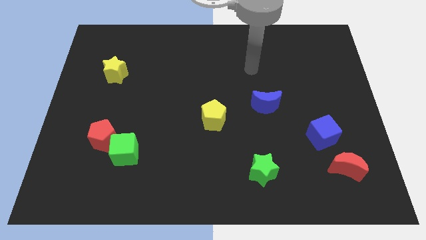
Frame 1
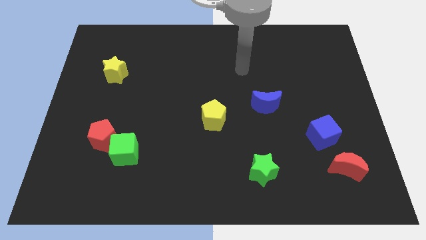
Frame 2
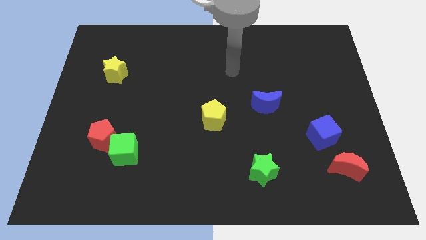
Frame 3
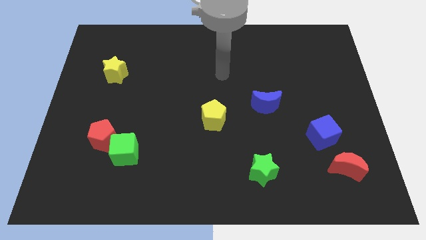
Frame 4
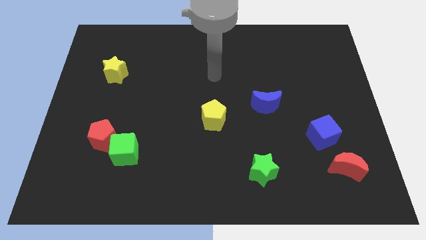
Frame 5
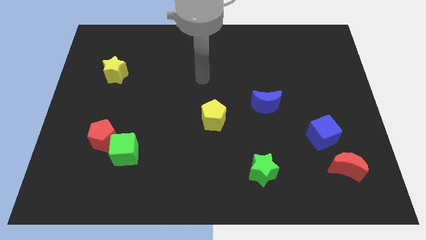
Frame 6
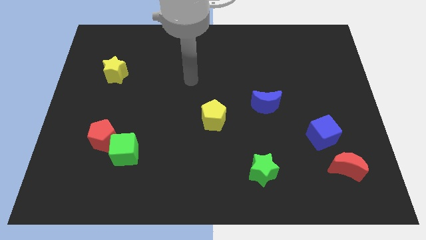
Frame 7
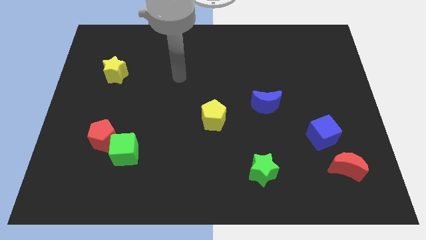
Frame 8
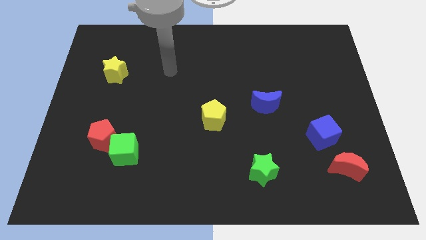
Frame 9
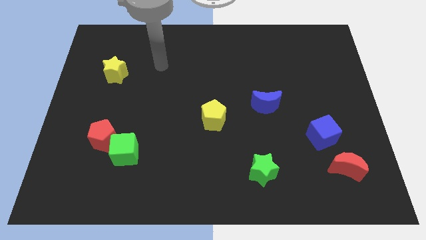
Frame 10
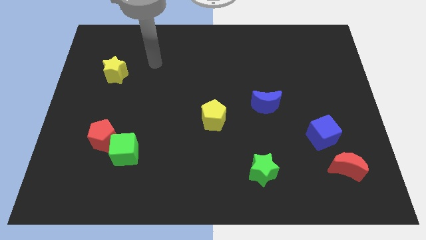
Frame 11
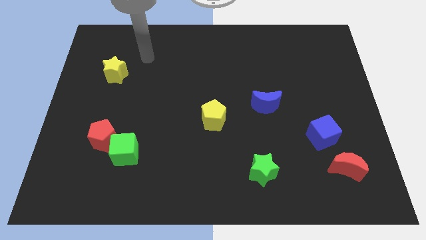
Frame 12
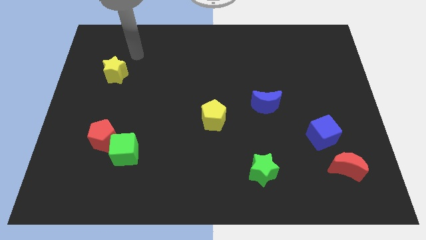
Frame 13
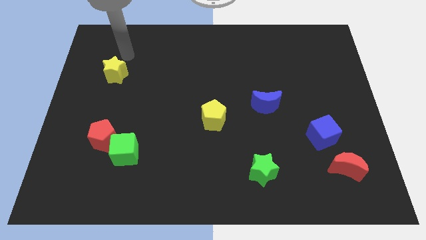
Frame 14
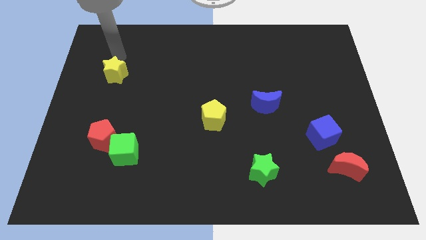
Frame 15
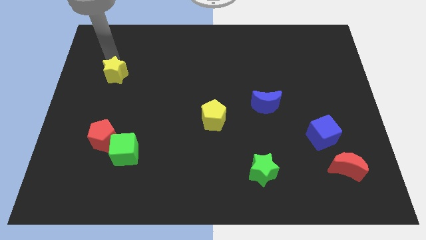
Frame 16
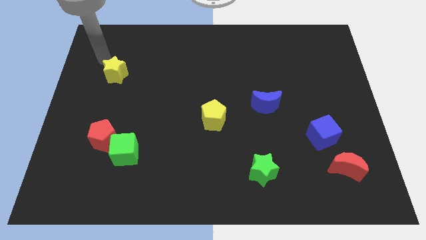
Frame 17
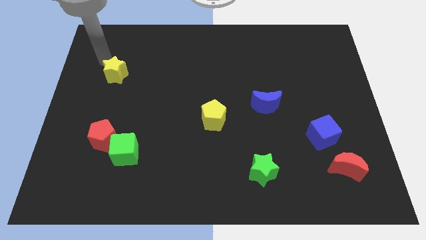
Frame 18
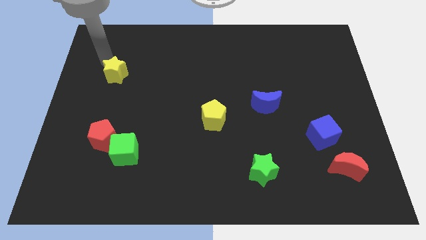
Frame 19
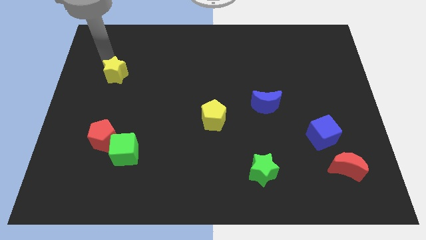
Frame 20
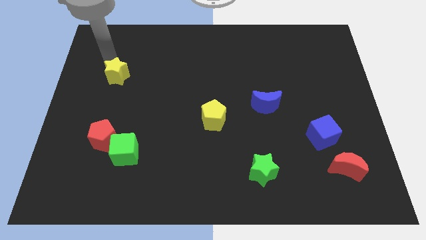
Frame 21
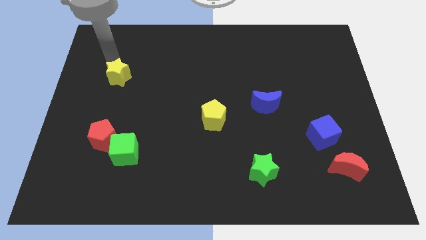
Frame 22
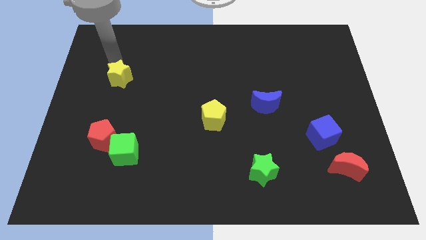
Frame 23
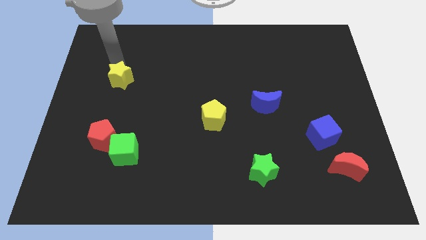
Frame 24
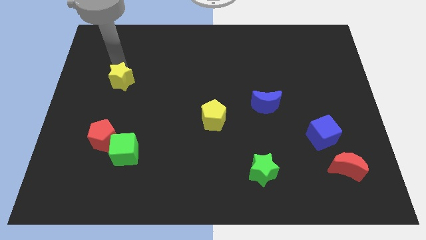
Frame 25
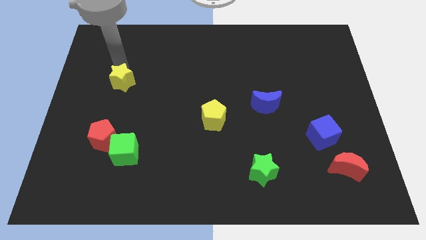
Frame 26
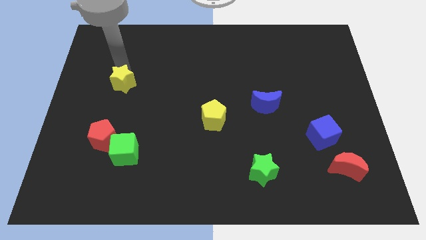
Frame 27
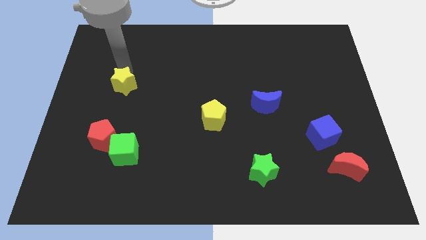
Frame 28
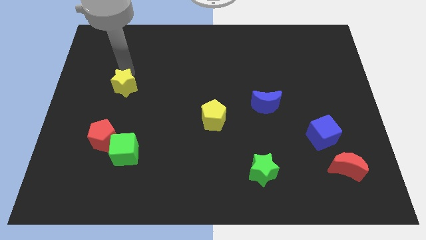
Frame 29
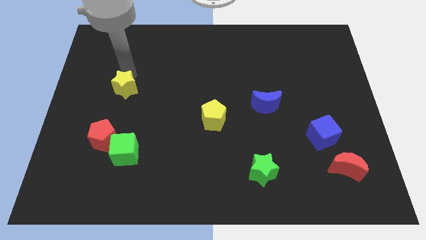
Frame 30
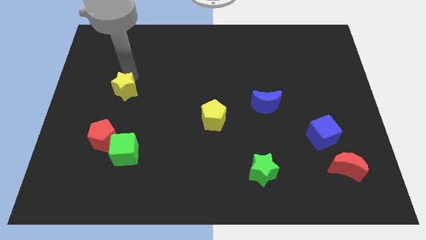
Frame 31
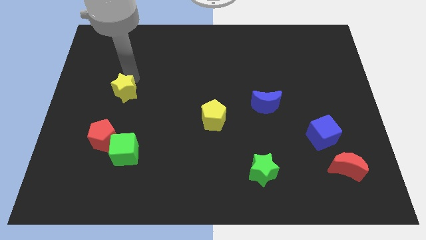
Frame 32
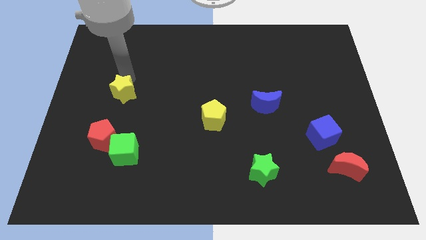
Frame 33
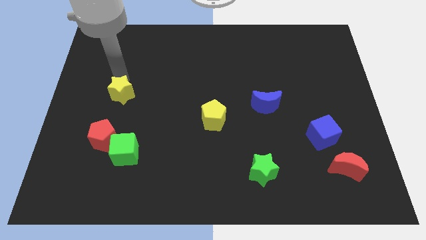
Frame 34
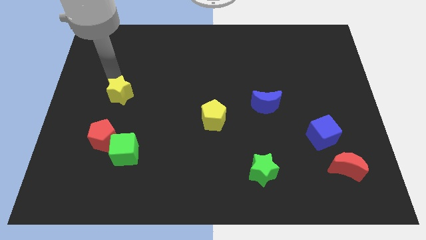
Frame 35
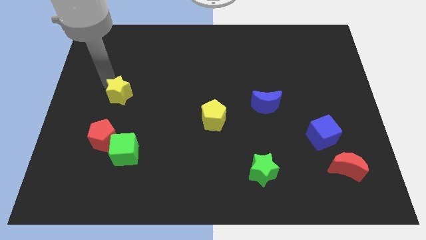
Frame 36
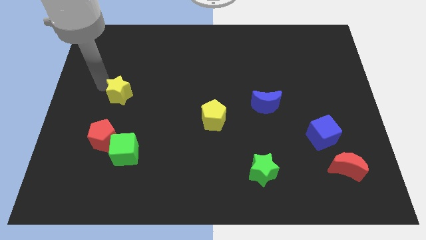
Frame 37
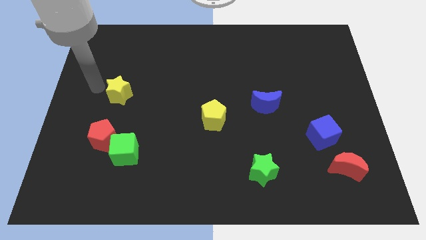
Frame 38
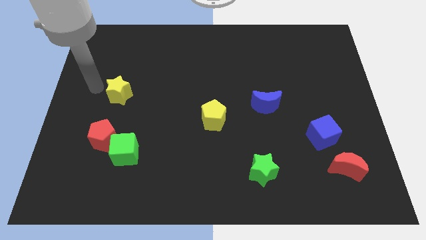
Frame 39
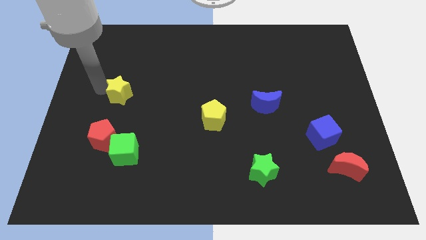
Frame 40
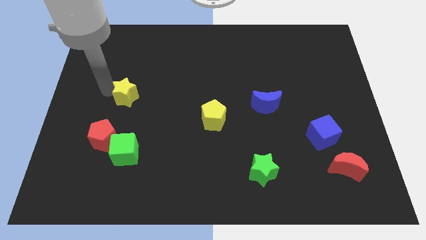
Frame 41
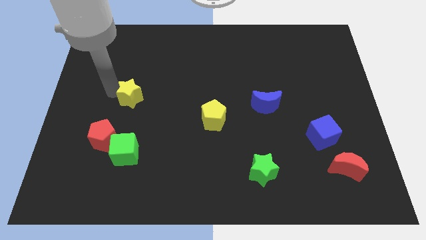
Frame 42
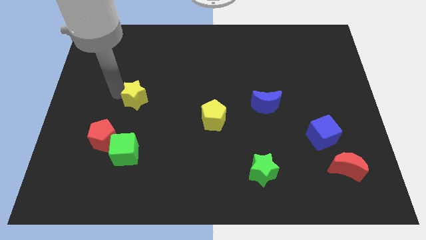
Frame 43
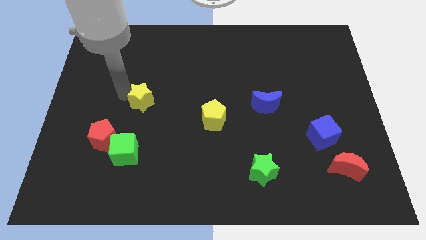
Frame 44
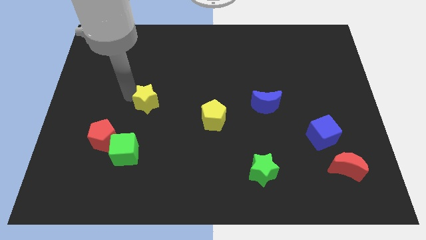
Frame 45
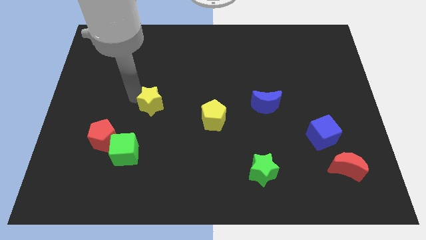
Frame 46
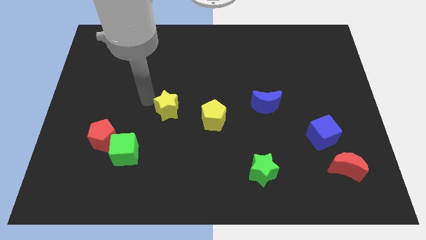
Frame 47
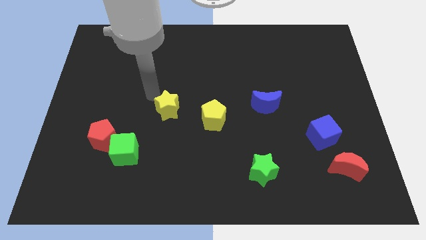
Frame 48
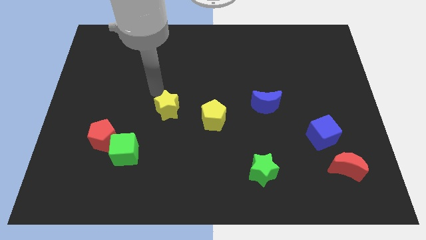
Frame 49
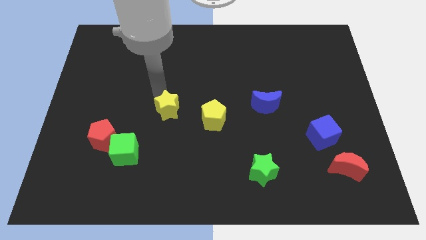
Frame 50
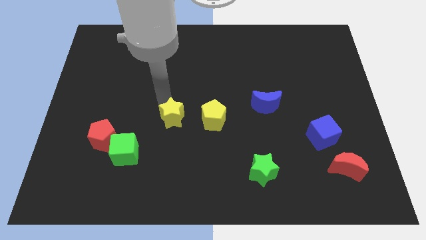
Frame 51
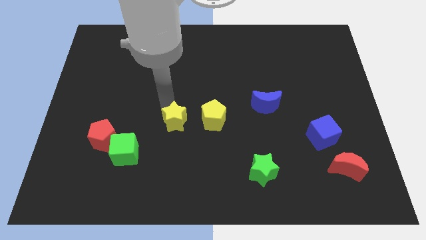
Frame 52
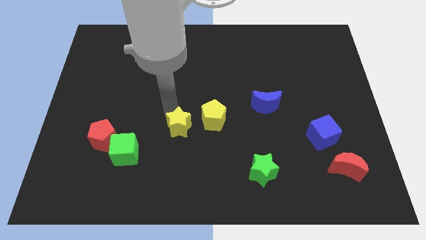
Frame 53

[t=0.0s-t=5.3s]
slide the yellow star diagonally down and to the left of the yellow pentagon

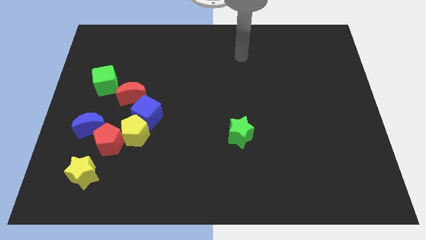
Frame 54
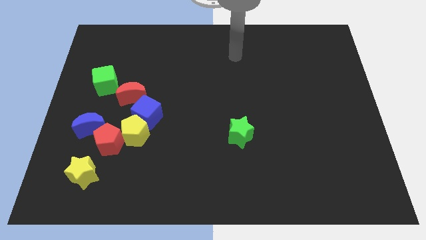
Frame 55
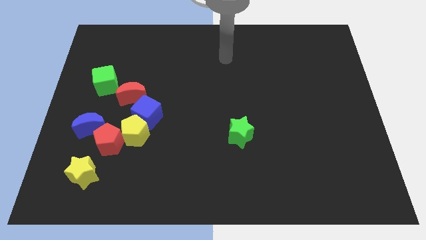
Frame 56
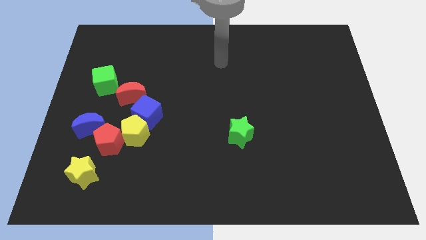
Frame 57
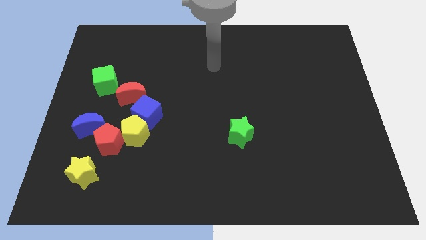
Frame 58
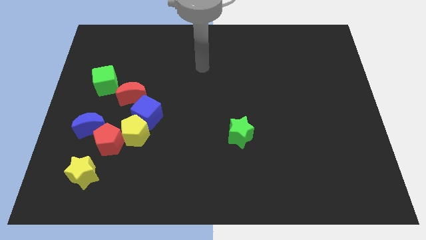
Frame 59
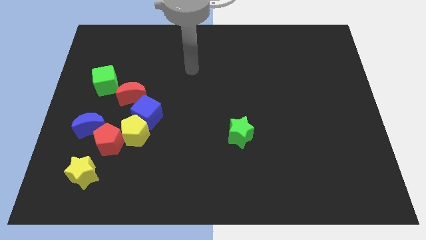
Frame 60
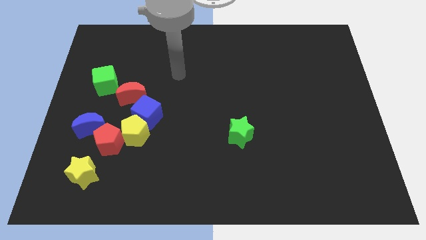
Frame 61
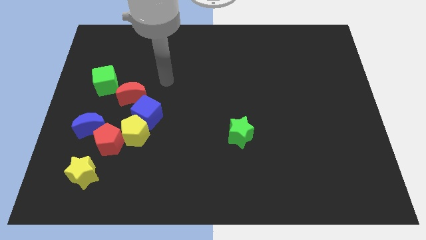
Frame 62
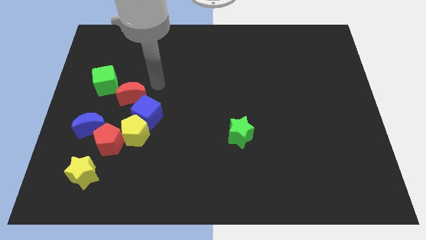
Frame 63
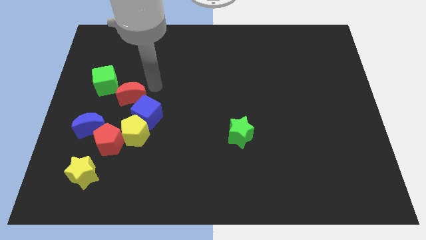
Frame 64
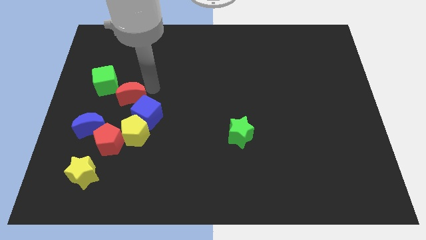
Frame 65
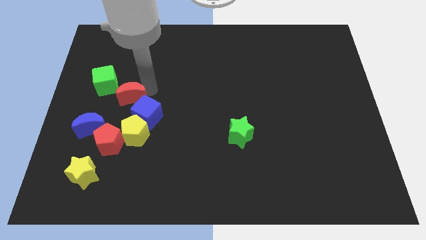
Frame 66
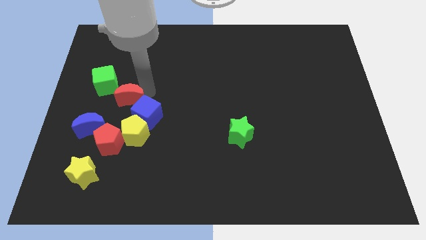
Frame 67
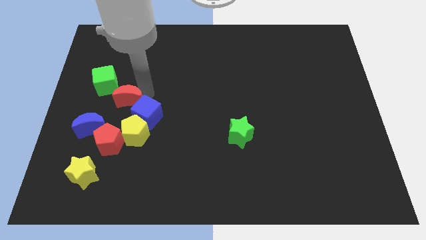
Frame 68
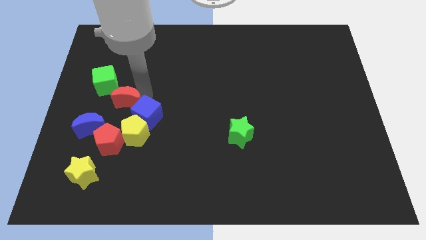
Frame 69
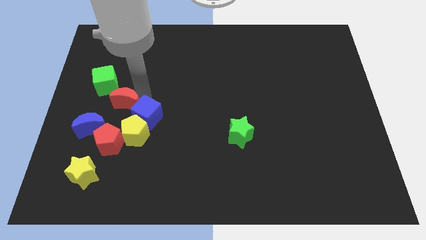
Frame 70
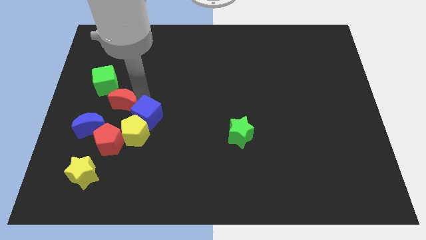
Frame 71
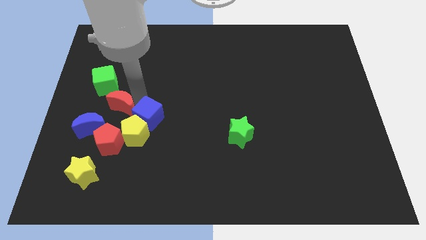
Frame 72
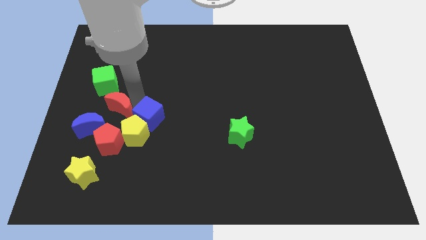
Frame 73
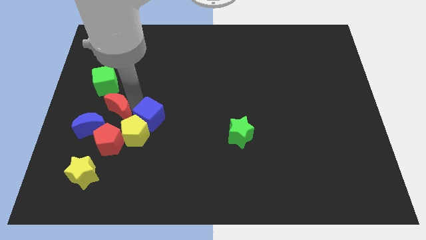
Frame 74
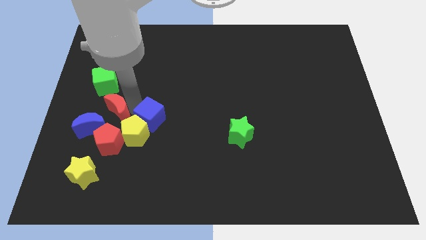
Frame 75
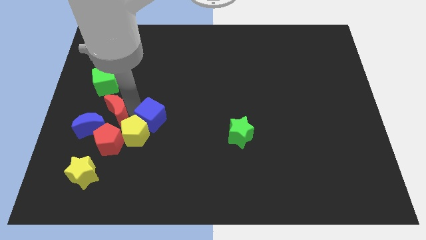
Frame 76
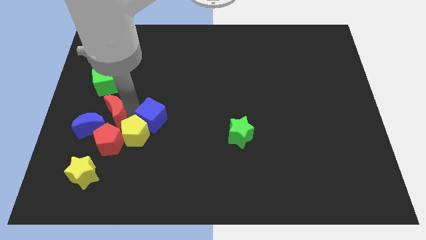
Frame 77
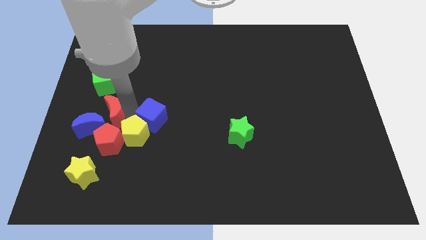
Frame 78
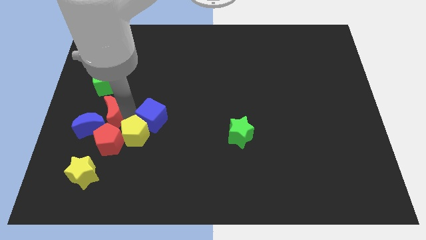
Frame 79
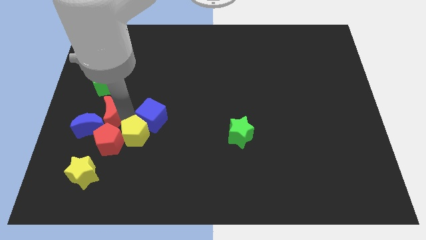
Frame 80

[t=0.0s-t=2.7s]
put the red moon to the left of the yellow pentagon
